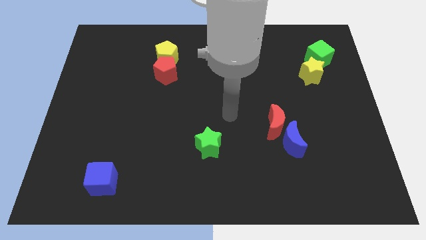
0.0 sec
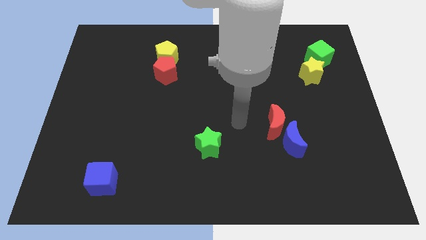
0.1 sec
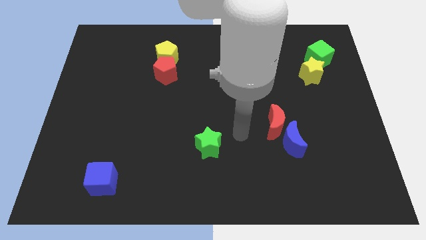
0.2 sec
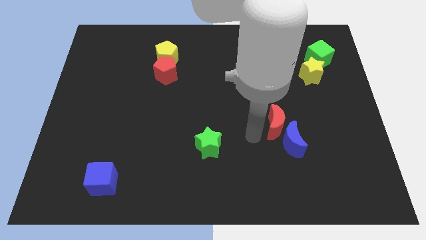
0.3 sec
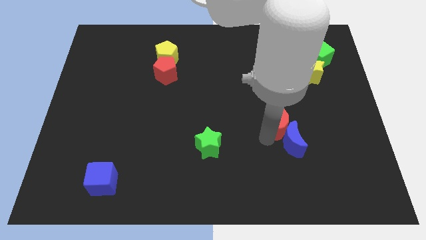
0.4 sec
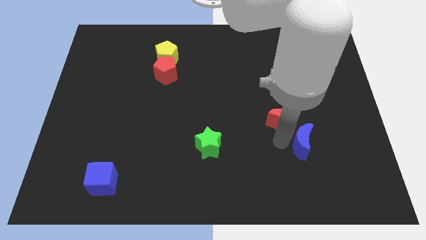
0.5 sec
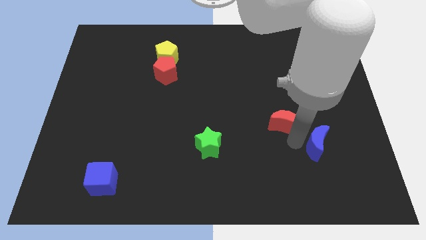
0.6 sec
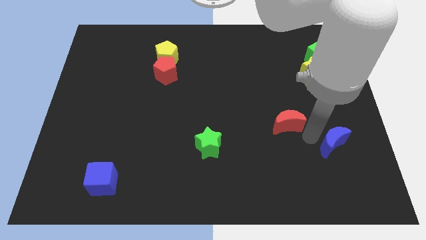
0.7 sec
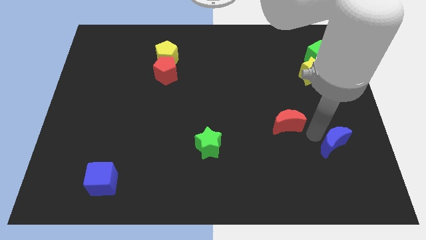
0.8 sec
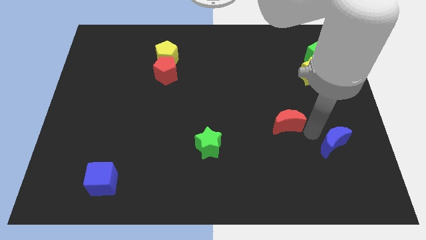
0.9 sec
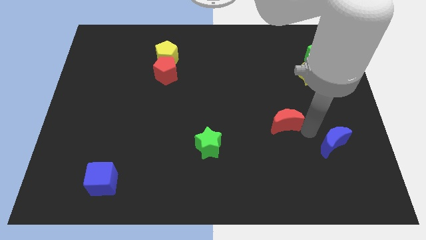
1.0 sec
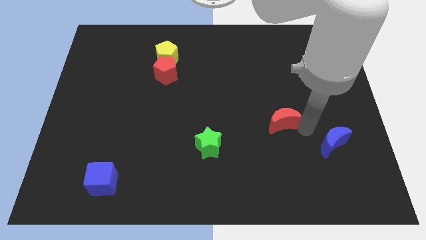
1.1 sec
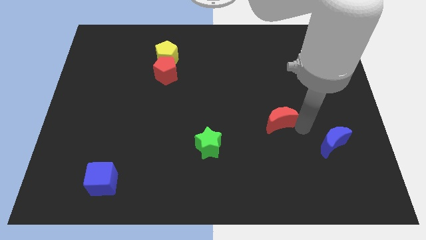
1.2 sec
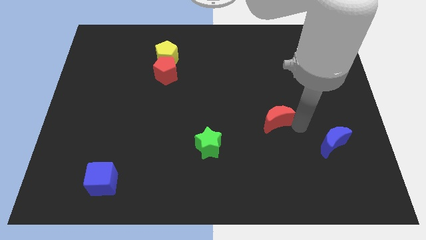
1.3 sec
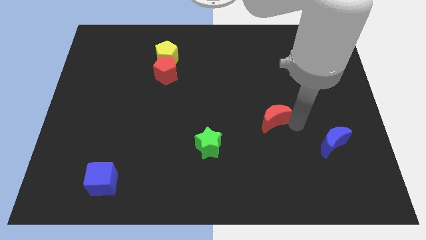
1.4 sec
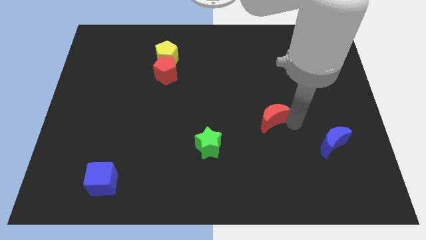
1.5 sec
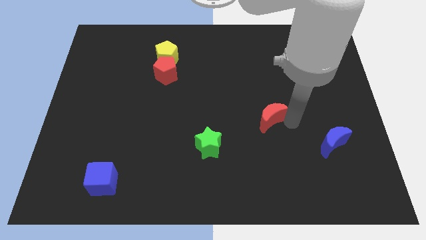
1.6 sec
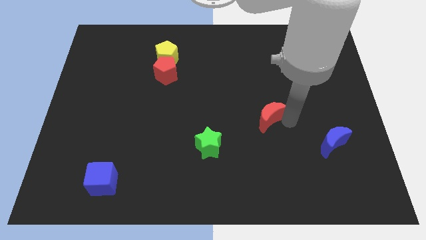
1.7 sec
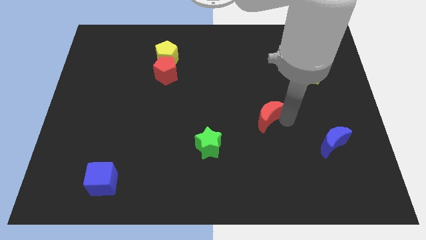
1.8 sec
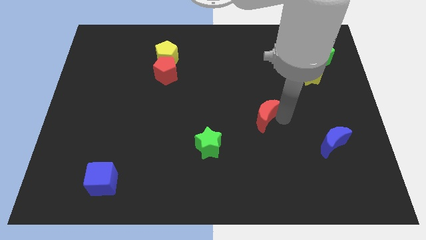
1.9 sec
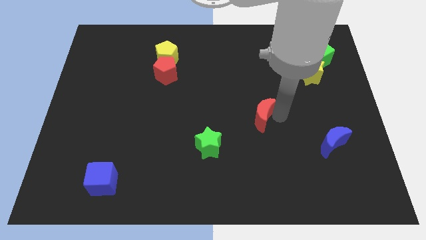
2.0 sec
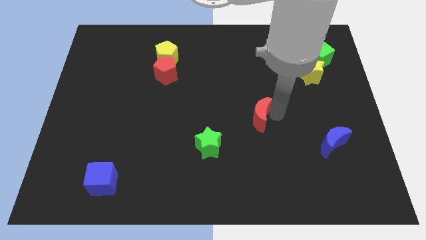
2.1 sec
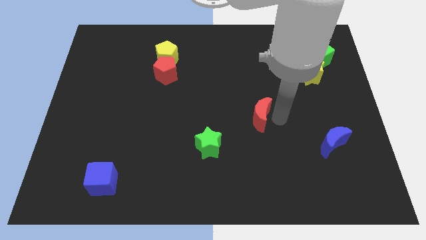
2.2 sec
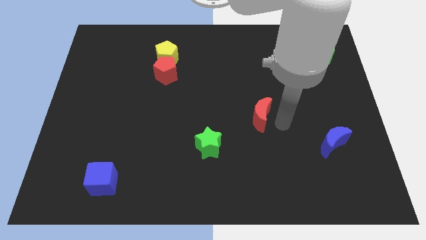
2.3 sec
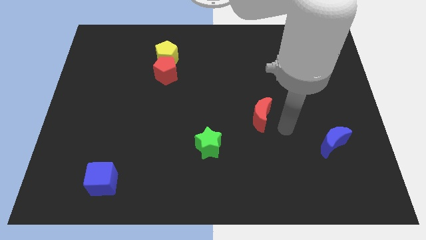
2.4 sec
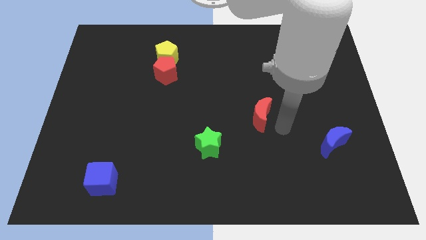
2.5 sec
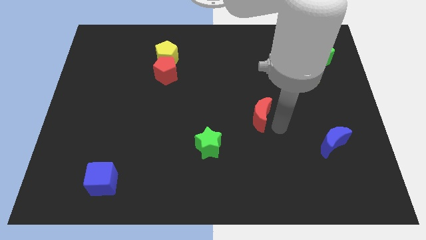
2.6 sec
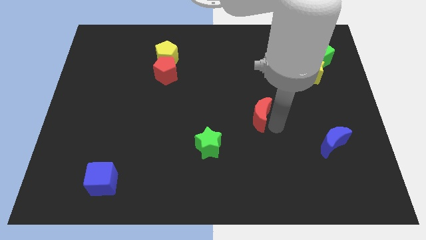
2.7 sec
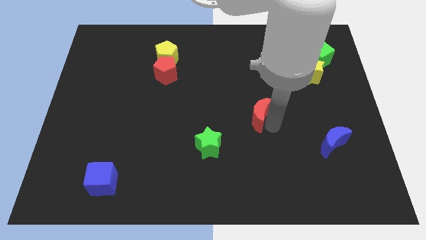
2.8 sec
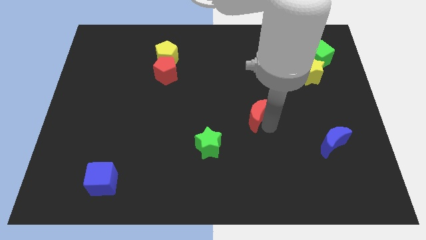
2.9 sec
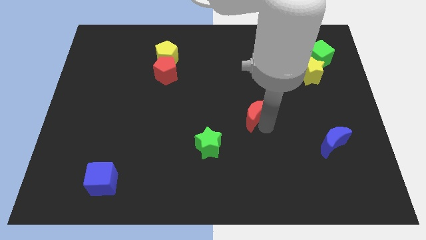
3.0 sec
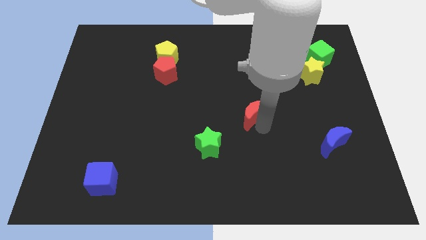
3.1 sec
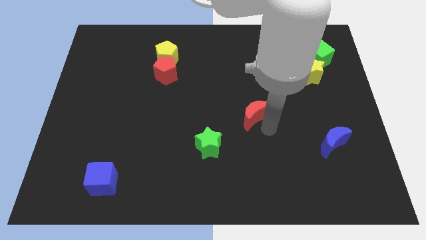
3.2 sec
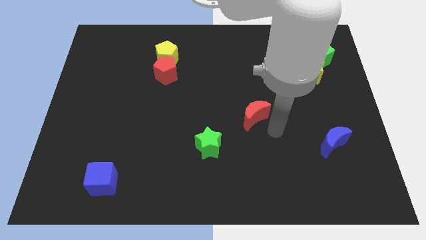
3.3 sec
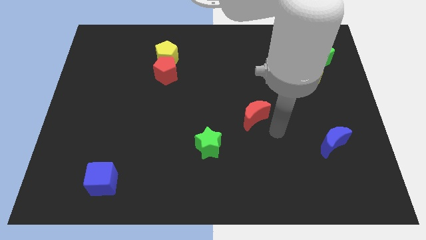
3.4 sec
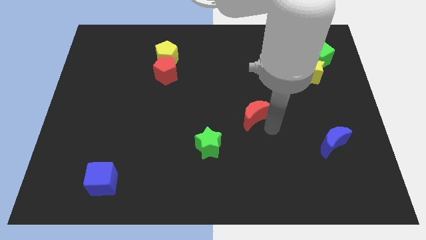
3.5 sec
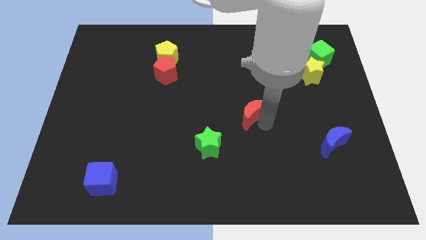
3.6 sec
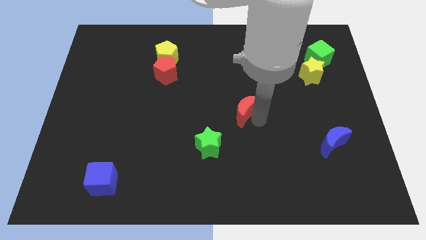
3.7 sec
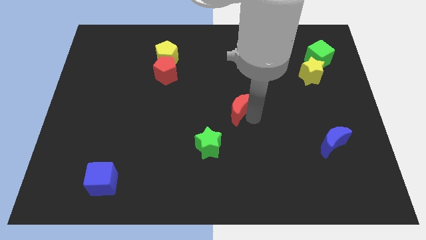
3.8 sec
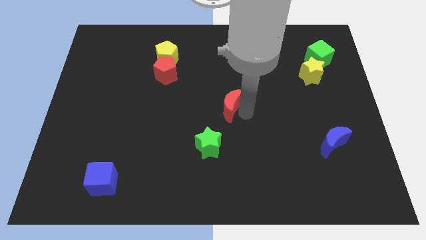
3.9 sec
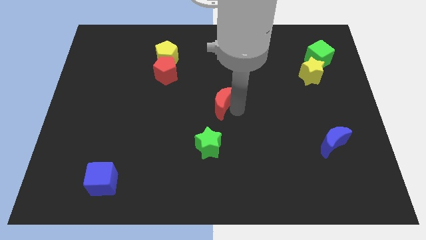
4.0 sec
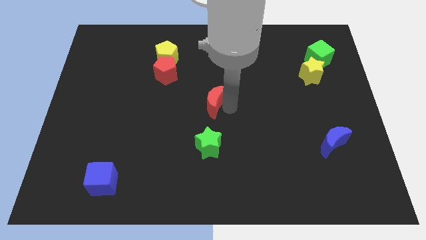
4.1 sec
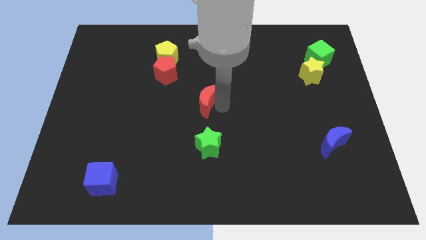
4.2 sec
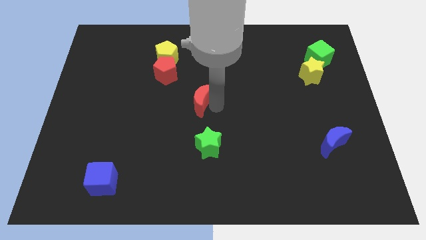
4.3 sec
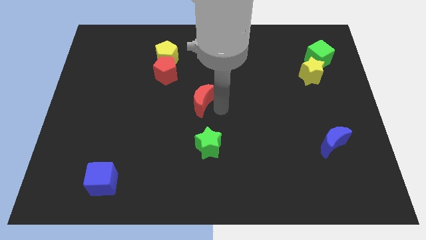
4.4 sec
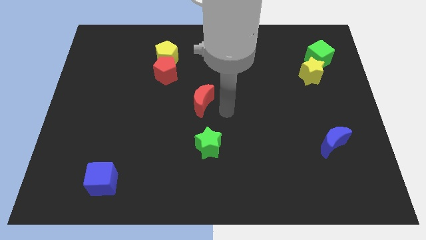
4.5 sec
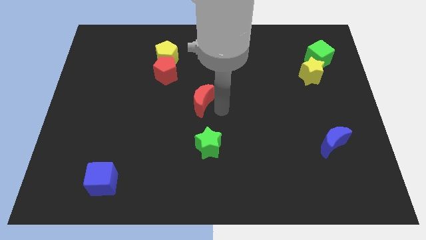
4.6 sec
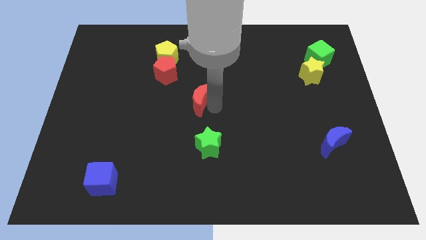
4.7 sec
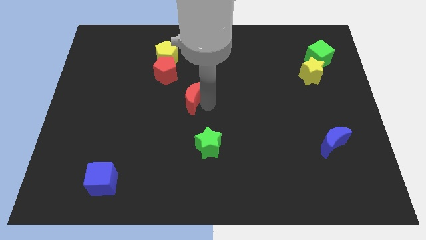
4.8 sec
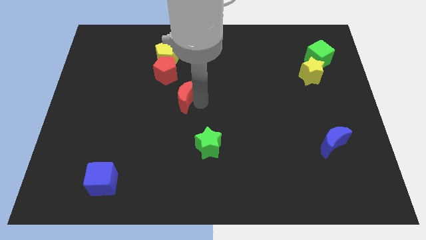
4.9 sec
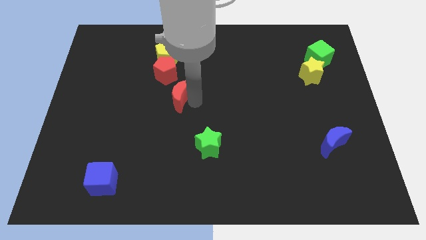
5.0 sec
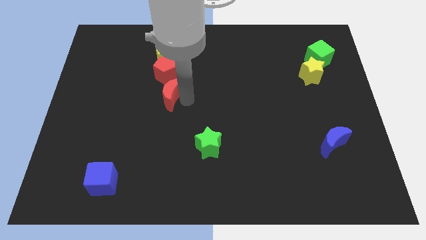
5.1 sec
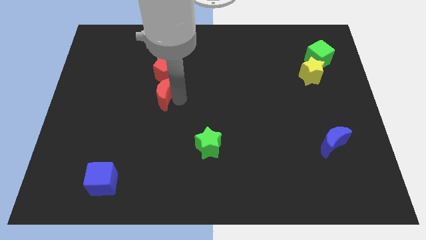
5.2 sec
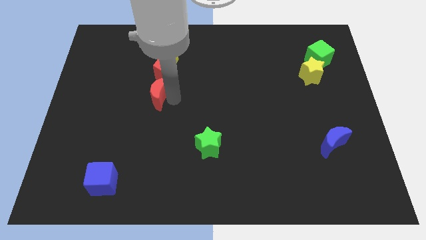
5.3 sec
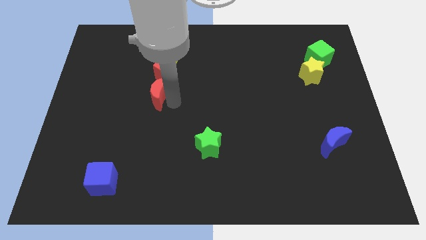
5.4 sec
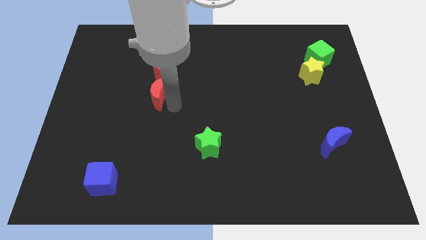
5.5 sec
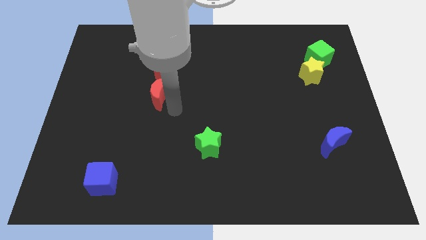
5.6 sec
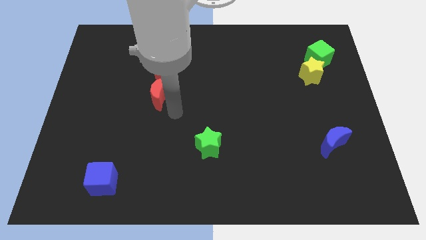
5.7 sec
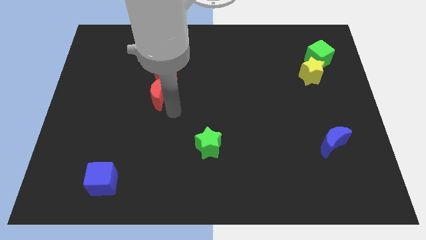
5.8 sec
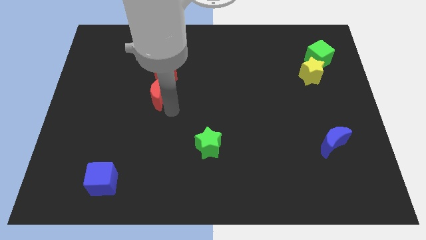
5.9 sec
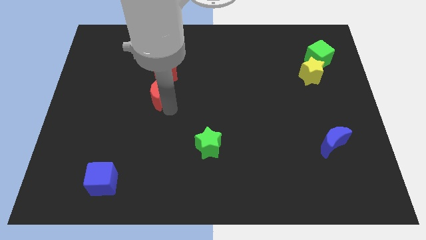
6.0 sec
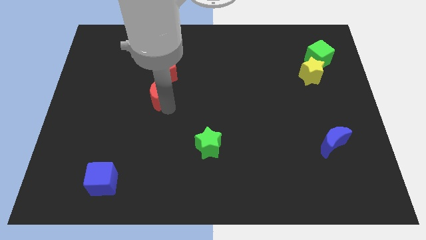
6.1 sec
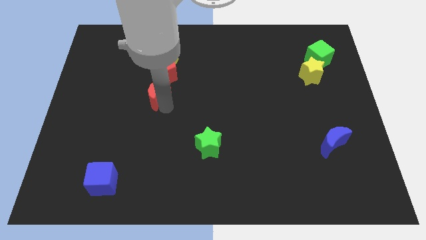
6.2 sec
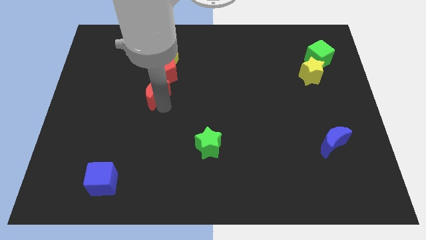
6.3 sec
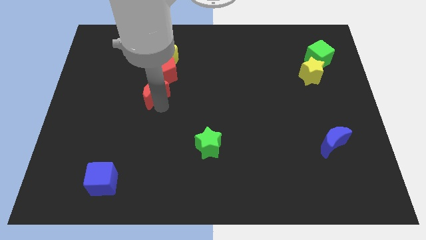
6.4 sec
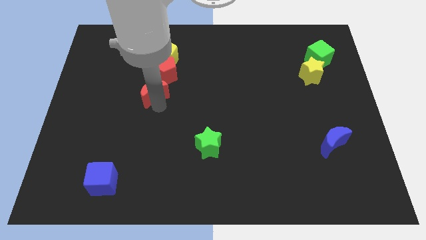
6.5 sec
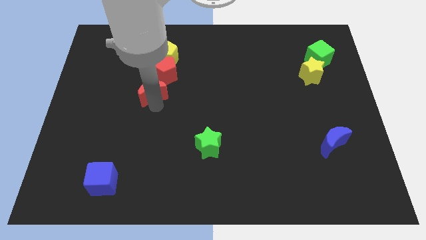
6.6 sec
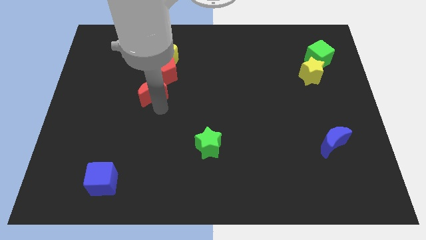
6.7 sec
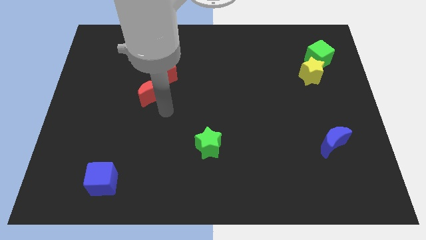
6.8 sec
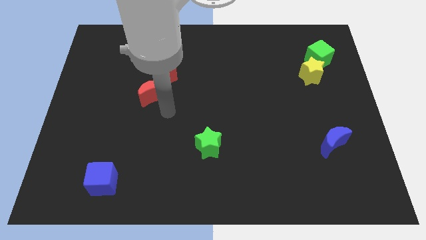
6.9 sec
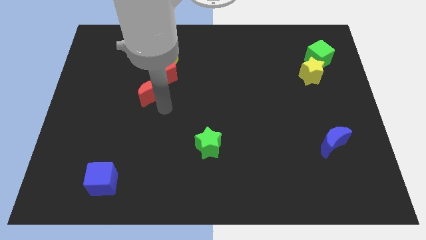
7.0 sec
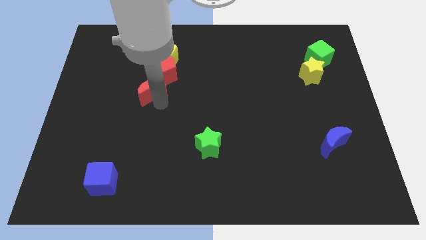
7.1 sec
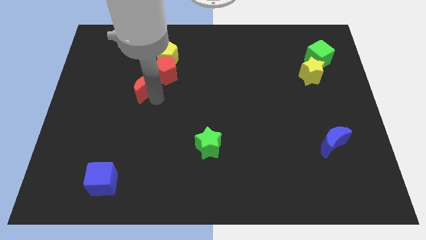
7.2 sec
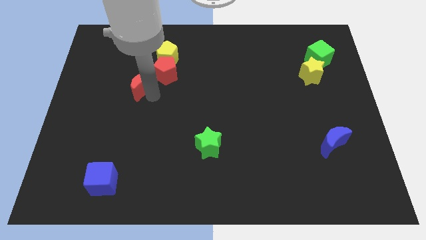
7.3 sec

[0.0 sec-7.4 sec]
push the red moon just left of the red pentagon
